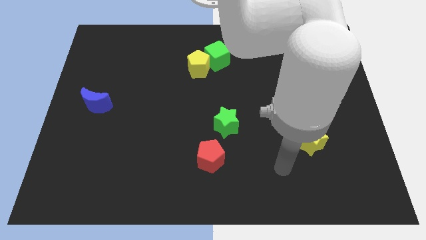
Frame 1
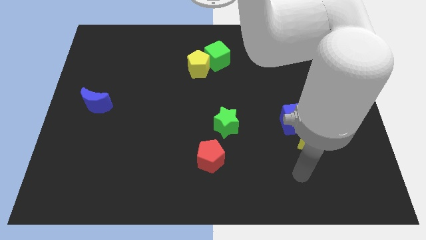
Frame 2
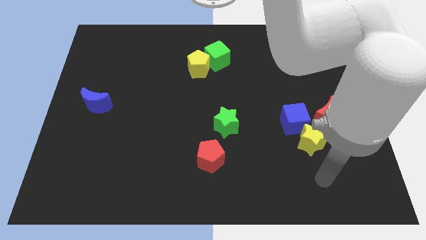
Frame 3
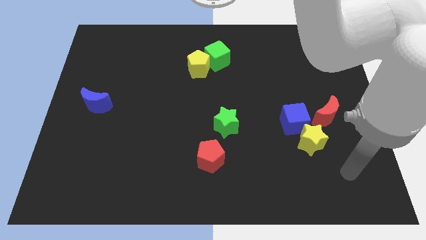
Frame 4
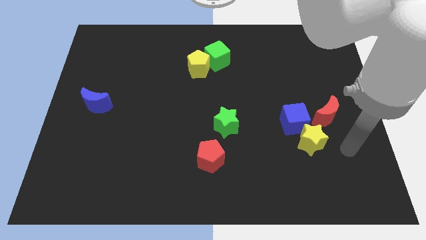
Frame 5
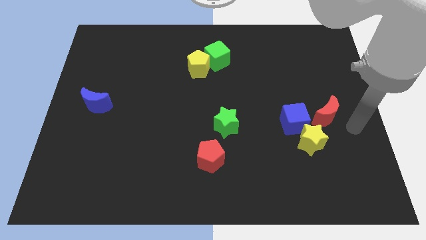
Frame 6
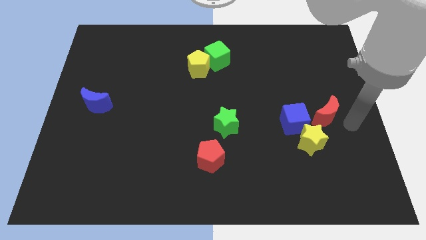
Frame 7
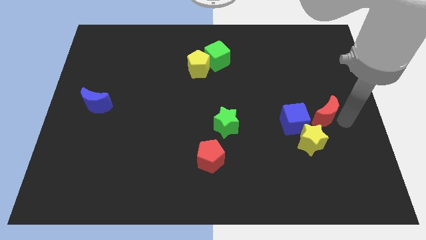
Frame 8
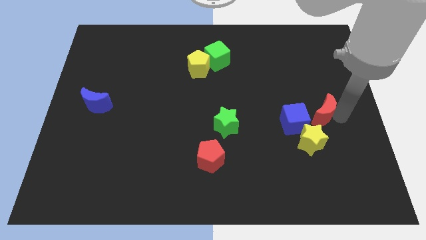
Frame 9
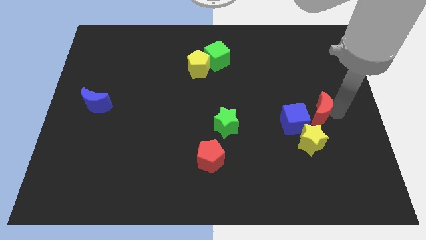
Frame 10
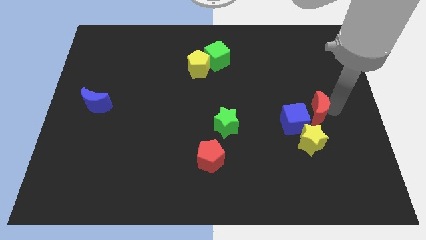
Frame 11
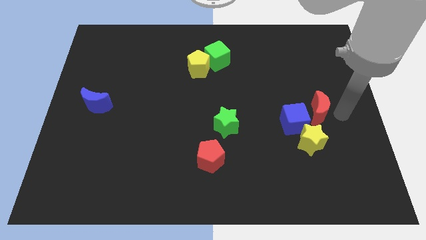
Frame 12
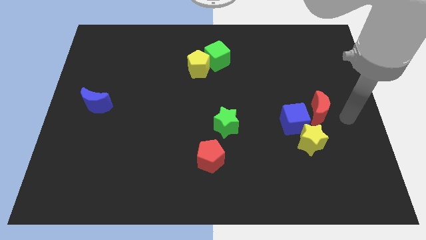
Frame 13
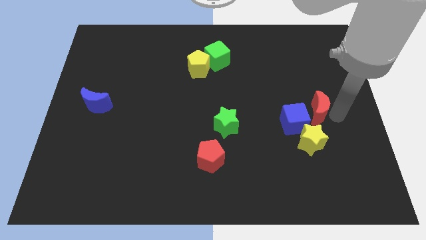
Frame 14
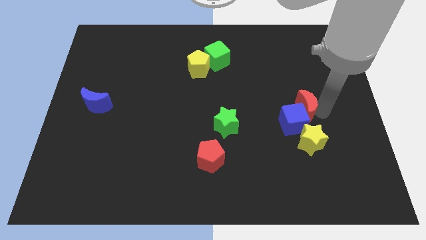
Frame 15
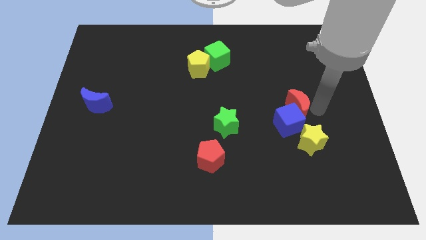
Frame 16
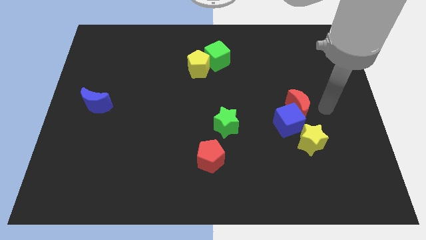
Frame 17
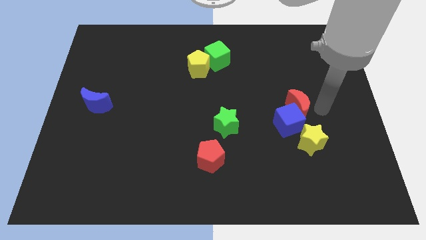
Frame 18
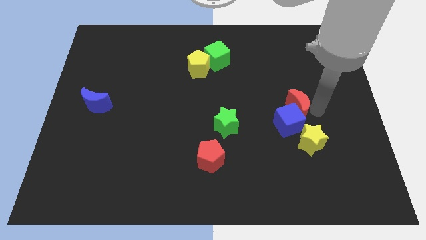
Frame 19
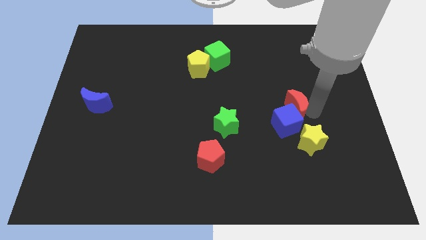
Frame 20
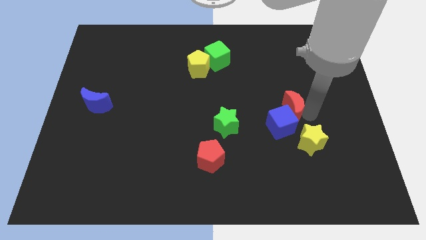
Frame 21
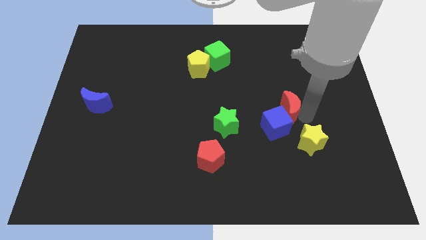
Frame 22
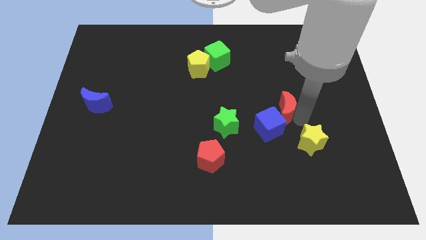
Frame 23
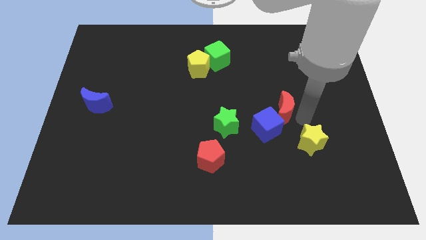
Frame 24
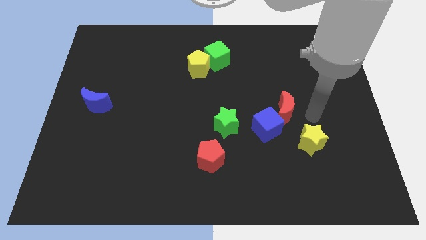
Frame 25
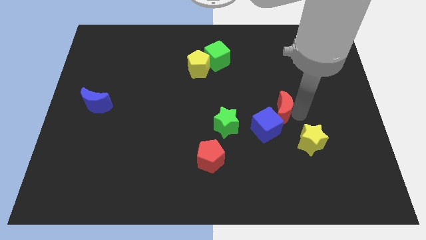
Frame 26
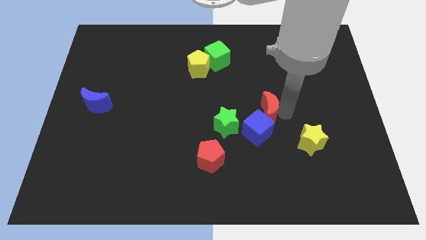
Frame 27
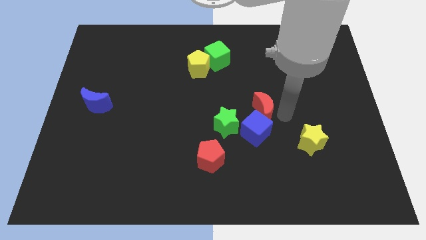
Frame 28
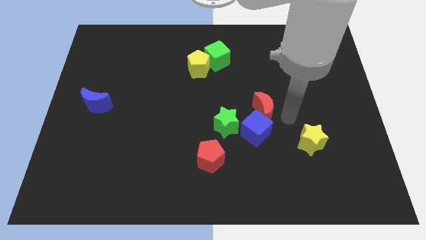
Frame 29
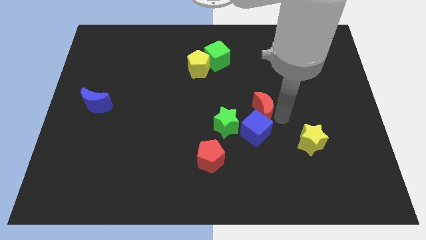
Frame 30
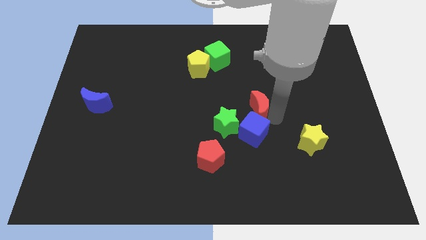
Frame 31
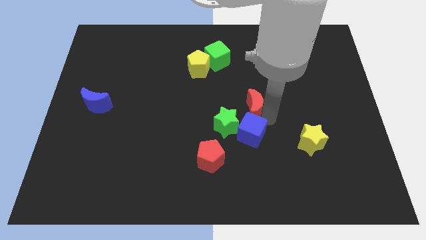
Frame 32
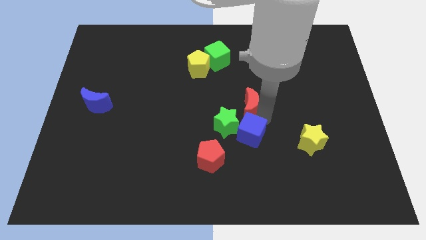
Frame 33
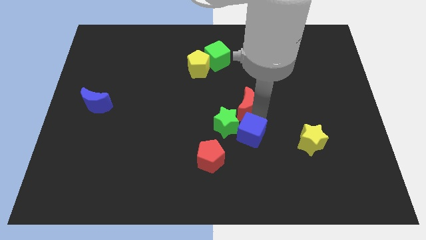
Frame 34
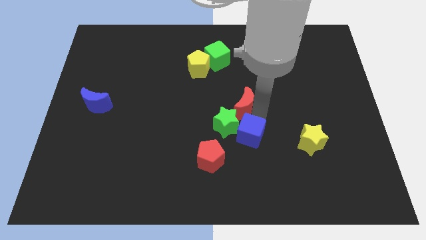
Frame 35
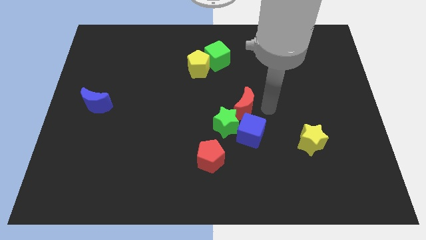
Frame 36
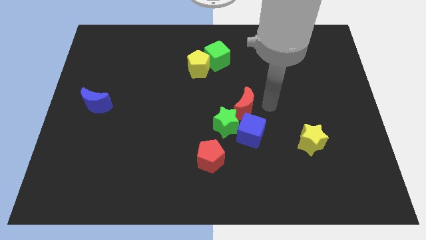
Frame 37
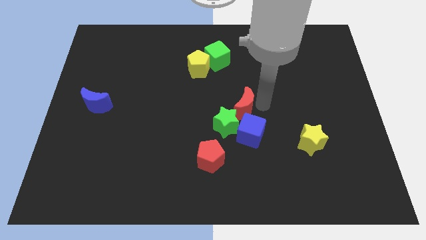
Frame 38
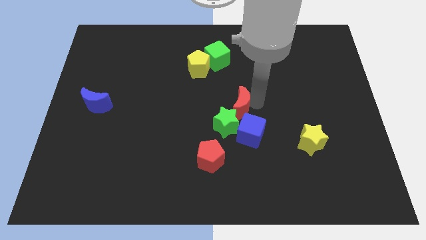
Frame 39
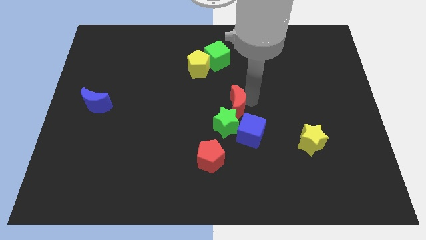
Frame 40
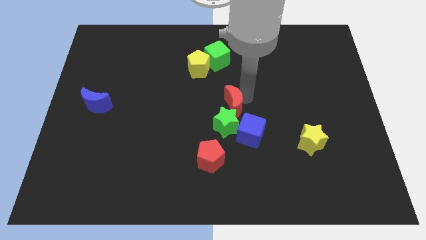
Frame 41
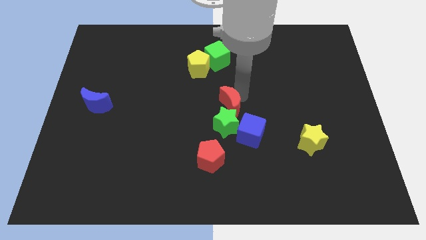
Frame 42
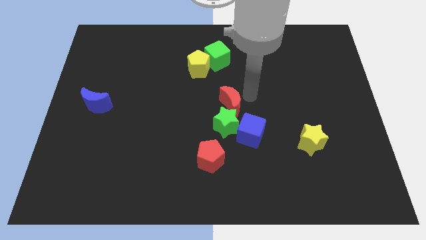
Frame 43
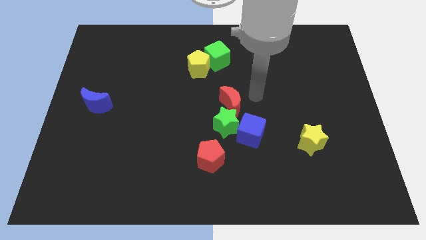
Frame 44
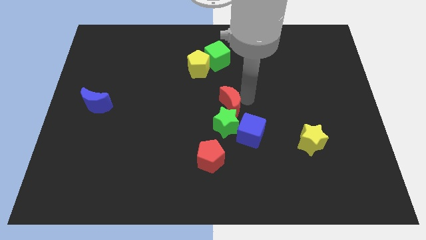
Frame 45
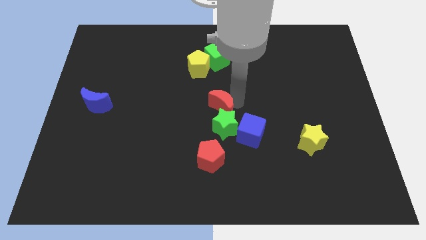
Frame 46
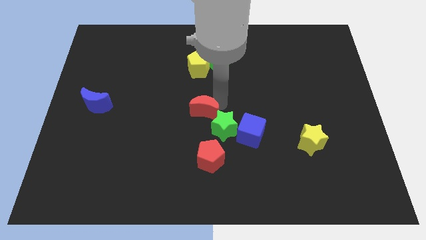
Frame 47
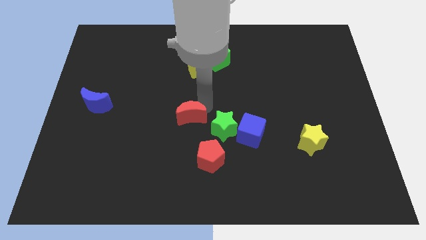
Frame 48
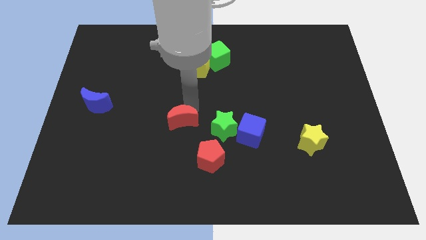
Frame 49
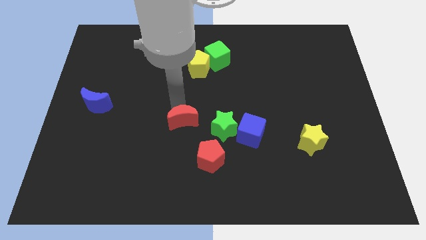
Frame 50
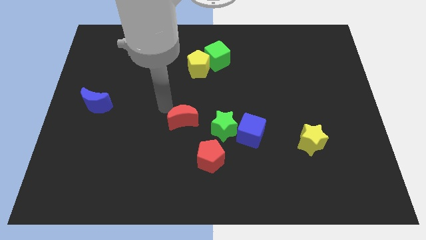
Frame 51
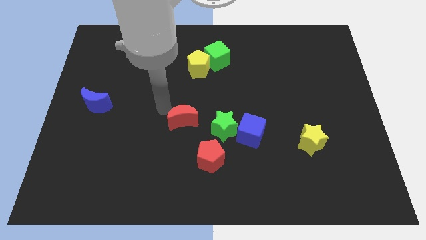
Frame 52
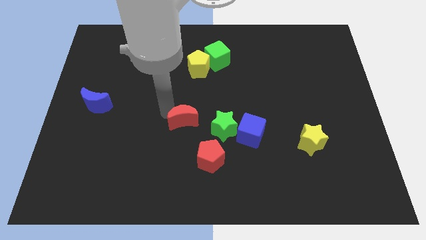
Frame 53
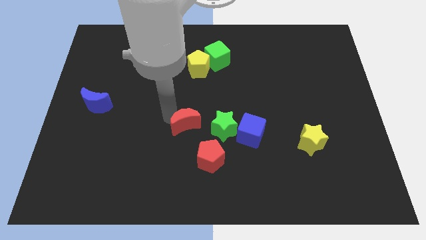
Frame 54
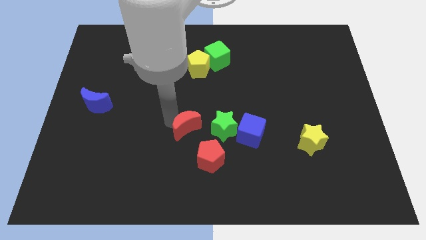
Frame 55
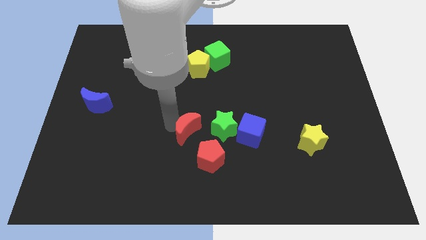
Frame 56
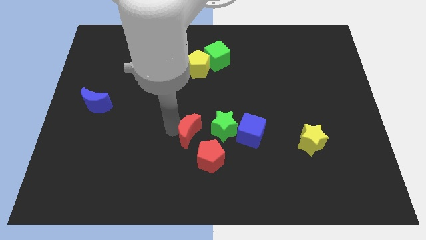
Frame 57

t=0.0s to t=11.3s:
put the red moon diagonally down and to the left of the green star

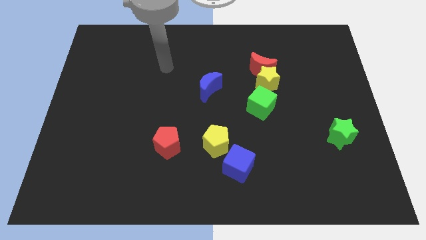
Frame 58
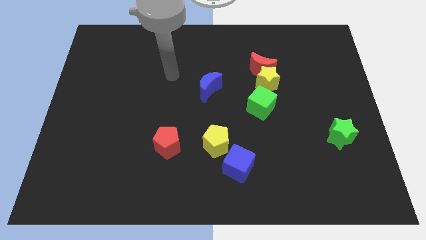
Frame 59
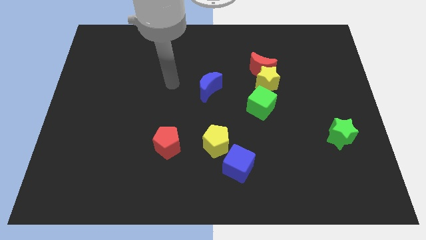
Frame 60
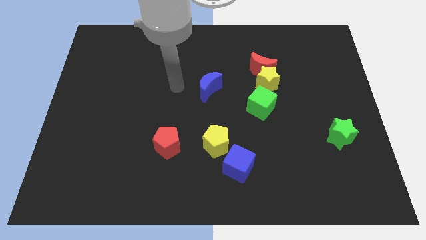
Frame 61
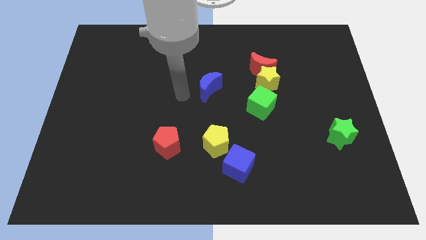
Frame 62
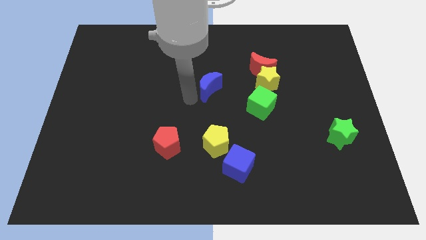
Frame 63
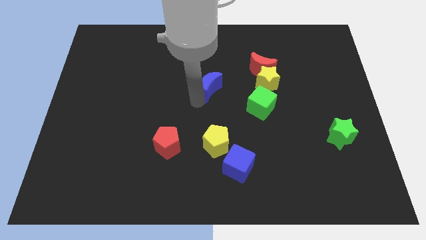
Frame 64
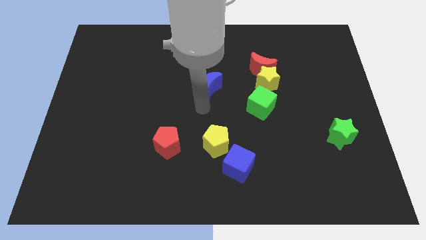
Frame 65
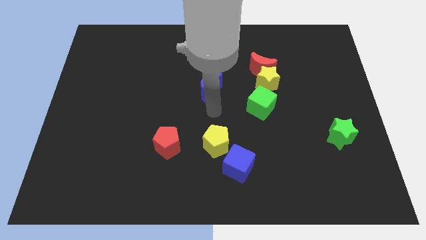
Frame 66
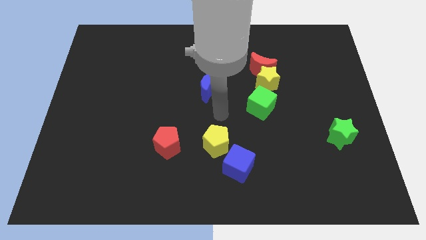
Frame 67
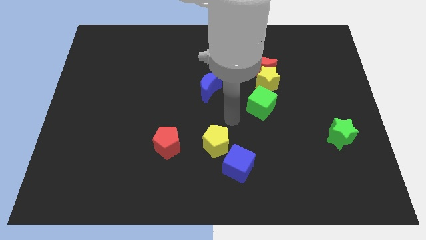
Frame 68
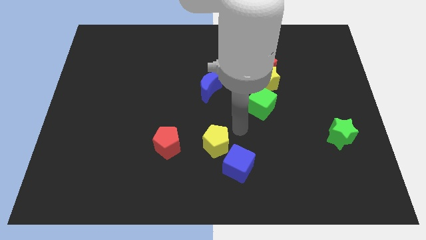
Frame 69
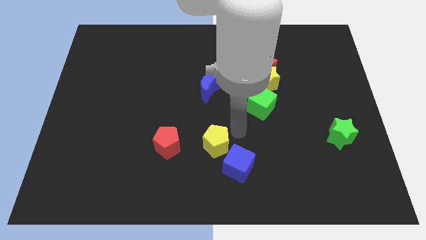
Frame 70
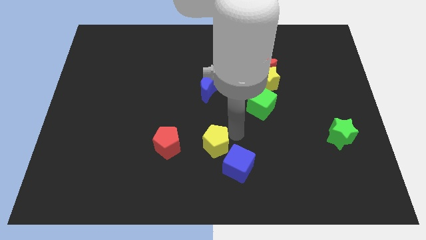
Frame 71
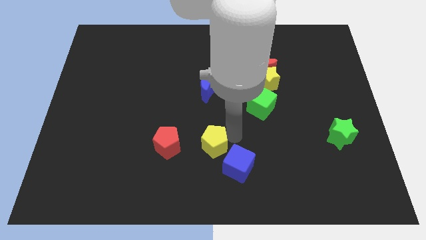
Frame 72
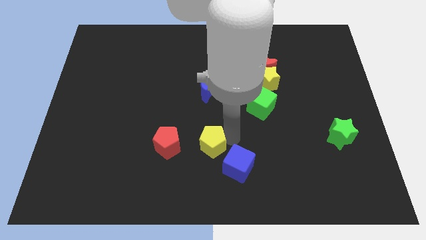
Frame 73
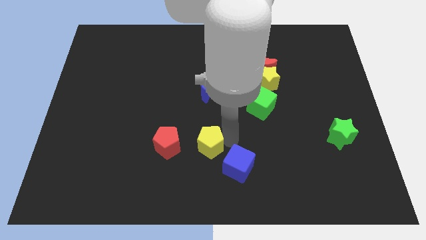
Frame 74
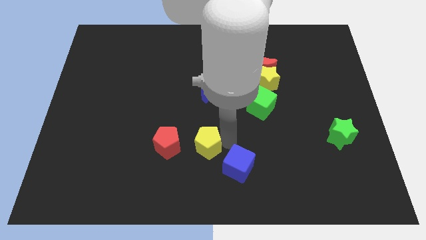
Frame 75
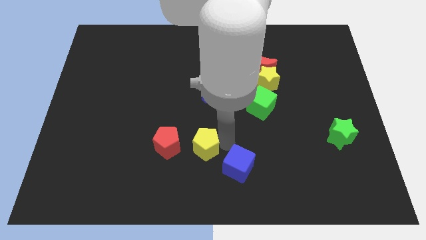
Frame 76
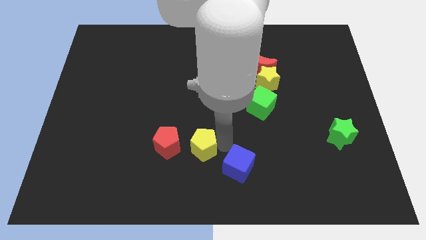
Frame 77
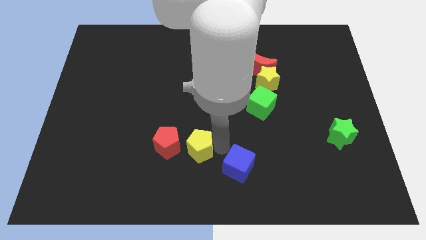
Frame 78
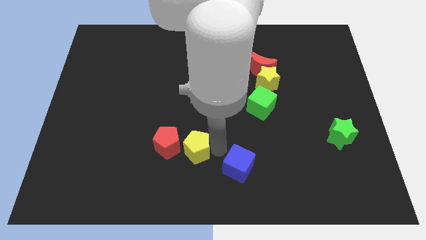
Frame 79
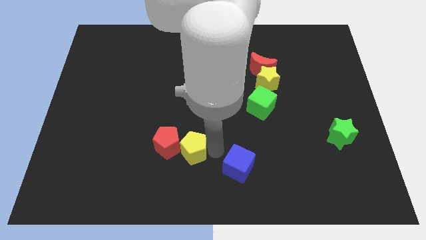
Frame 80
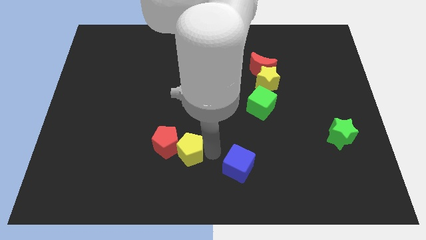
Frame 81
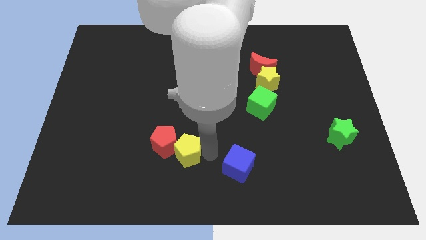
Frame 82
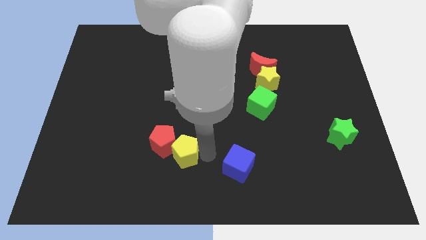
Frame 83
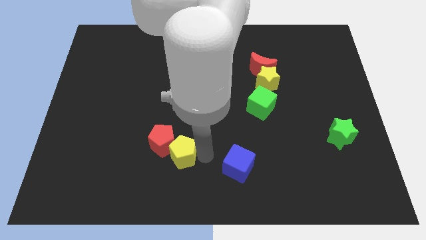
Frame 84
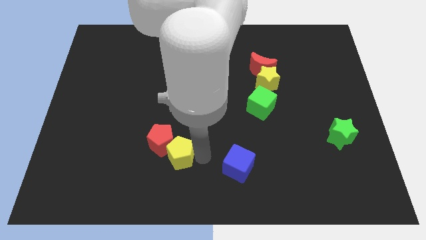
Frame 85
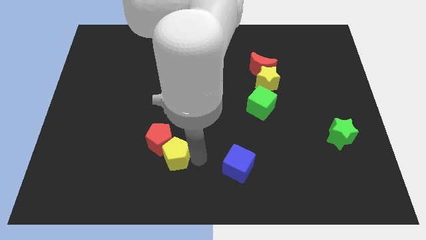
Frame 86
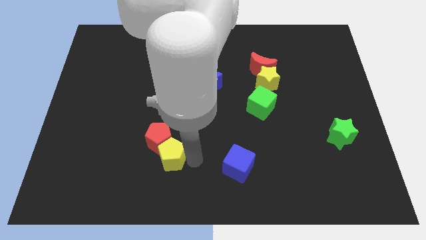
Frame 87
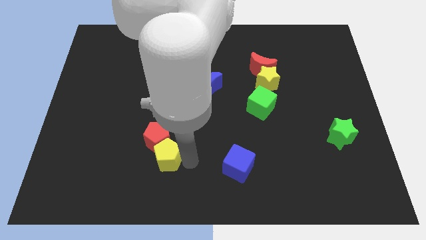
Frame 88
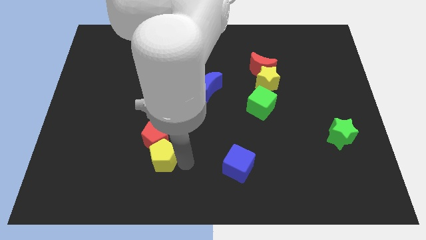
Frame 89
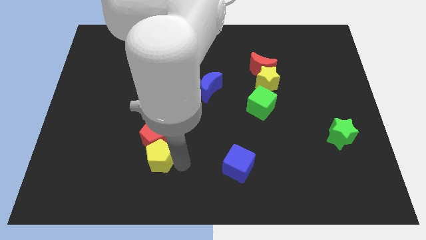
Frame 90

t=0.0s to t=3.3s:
put the yellow pentagon to the bottom left of the red pentagon
